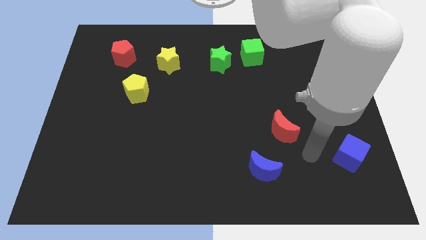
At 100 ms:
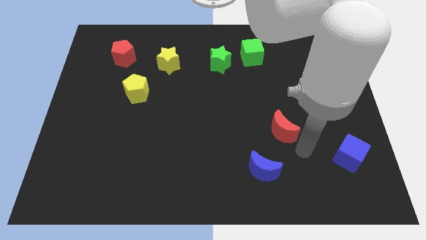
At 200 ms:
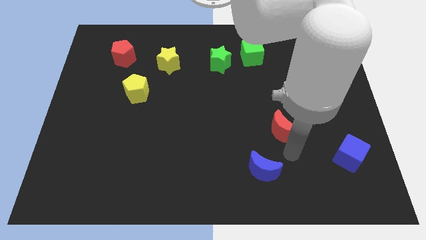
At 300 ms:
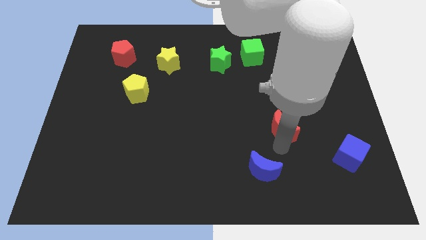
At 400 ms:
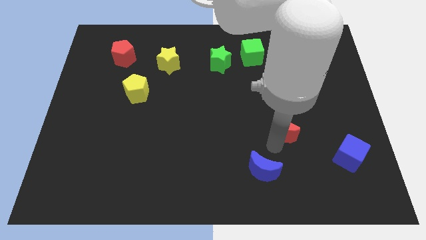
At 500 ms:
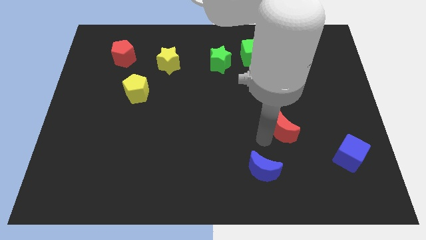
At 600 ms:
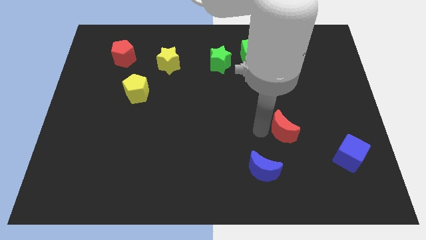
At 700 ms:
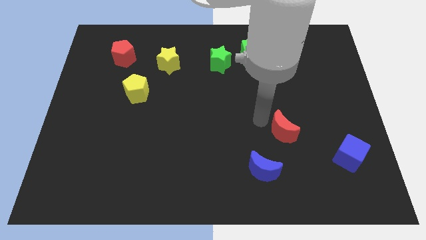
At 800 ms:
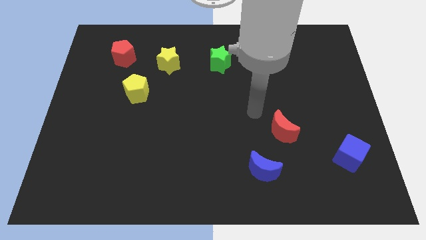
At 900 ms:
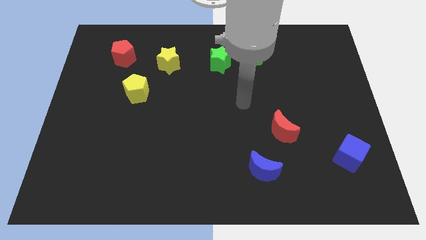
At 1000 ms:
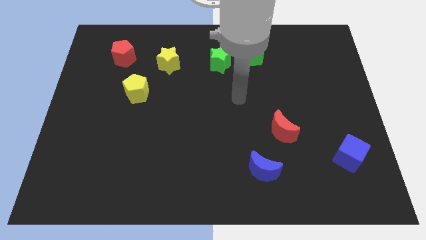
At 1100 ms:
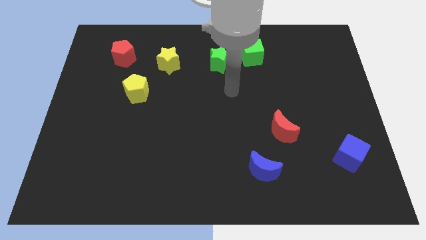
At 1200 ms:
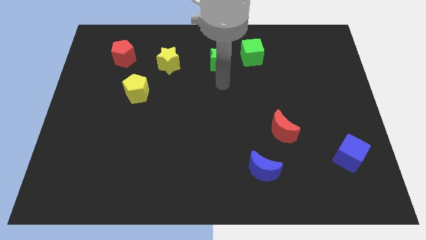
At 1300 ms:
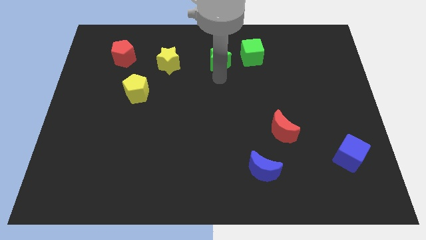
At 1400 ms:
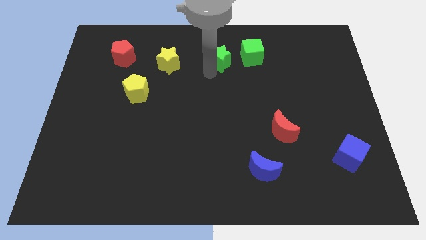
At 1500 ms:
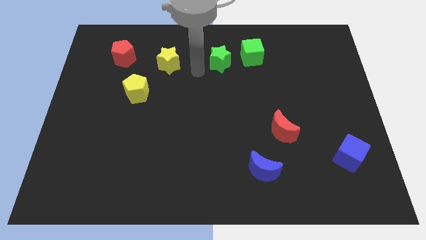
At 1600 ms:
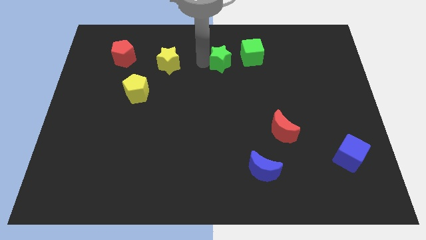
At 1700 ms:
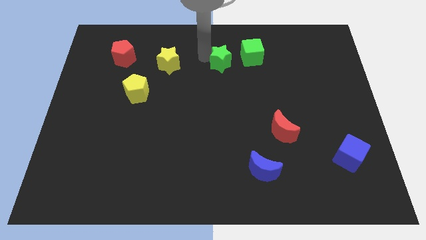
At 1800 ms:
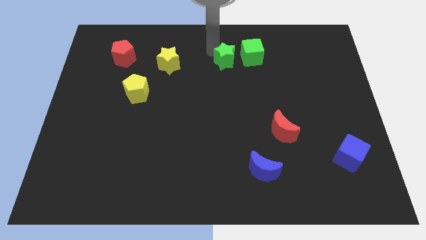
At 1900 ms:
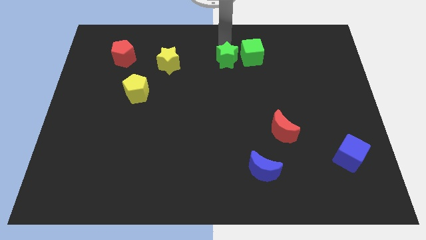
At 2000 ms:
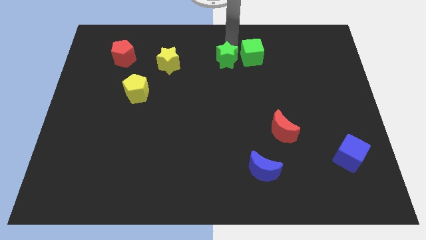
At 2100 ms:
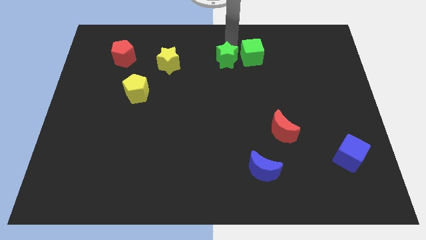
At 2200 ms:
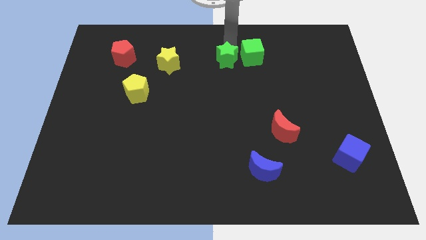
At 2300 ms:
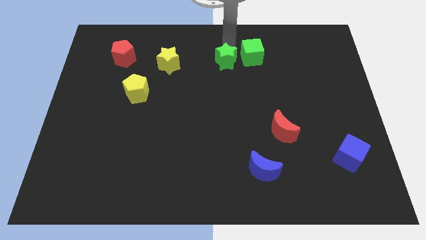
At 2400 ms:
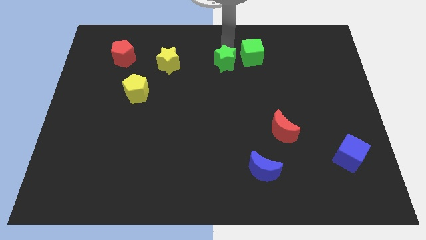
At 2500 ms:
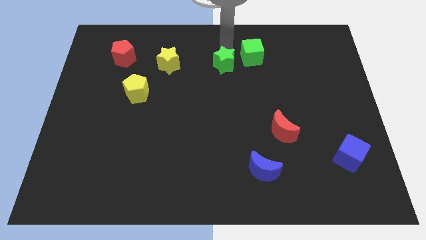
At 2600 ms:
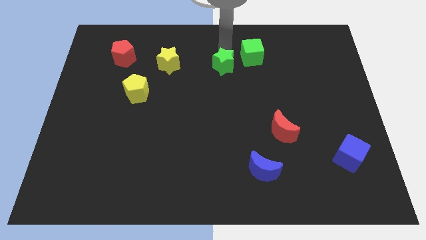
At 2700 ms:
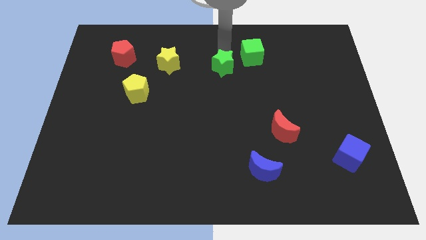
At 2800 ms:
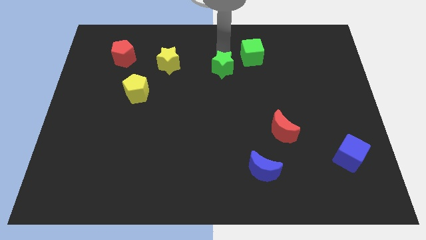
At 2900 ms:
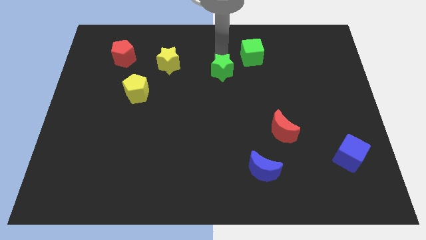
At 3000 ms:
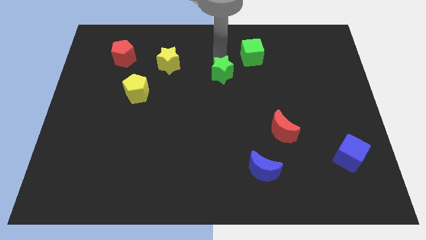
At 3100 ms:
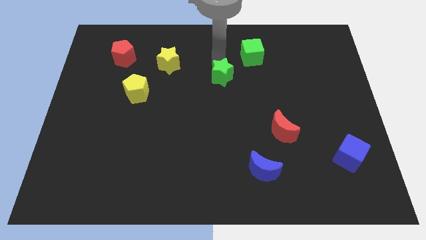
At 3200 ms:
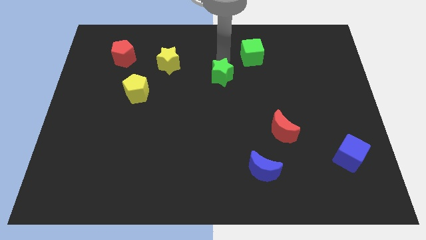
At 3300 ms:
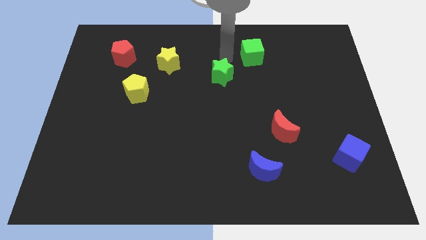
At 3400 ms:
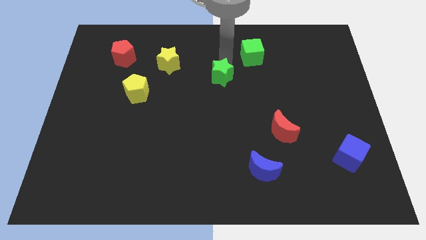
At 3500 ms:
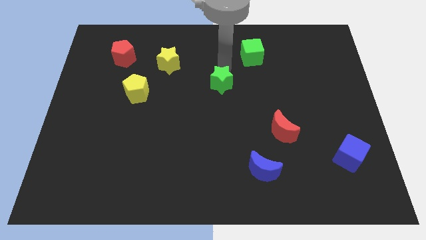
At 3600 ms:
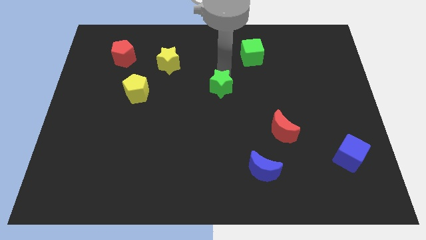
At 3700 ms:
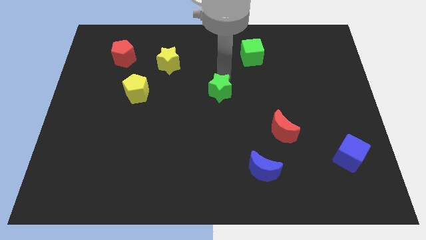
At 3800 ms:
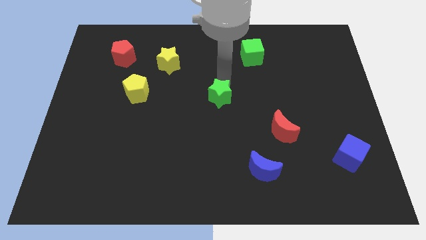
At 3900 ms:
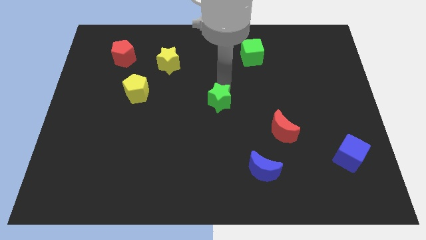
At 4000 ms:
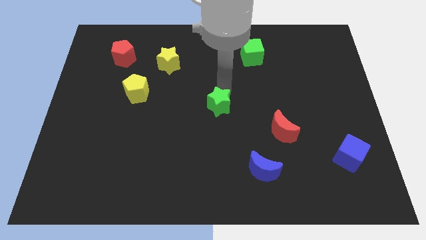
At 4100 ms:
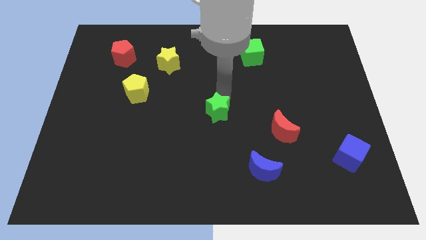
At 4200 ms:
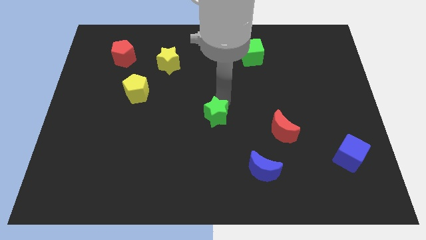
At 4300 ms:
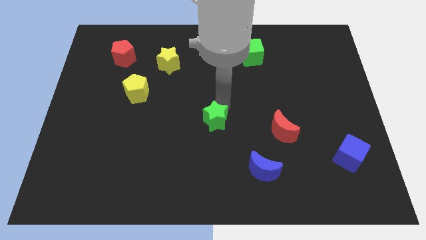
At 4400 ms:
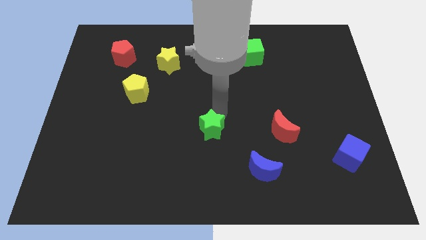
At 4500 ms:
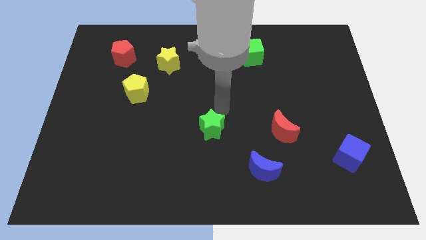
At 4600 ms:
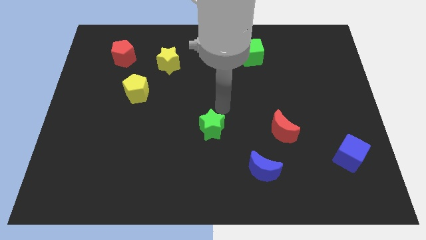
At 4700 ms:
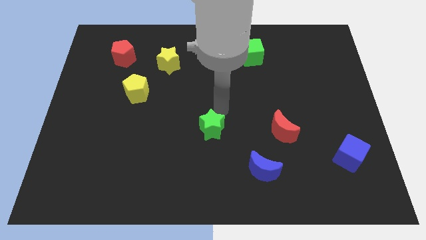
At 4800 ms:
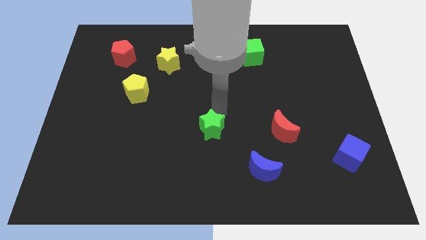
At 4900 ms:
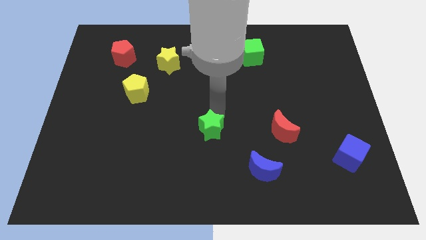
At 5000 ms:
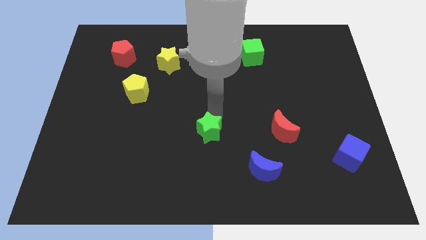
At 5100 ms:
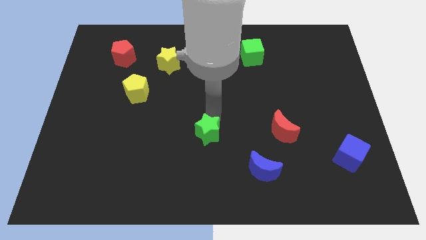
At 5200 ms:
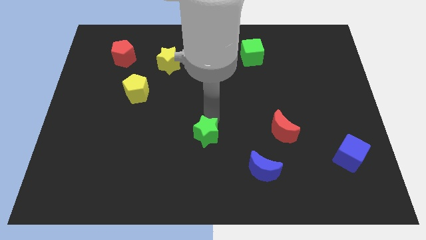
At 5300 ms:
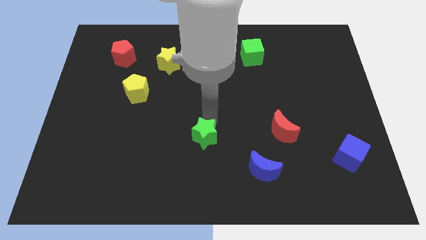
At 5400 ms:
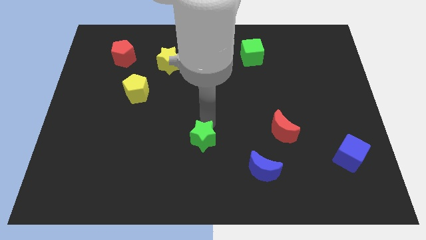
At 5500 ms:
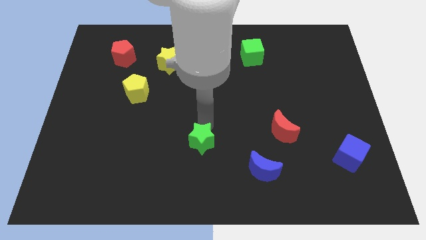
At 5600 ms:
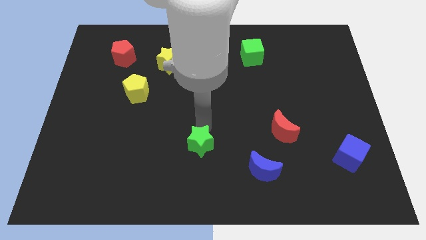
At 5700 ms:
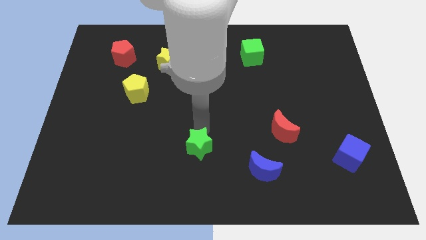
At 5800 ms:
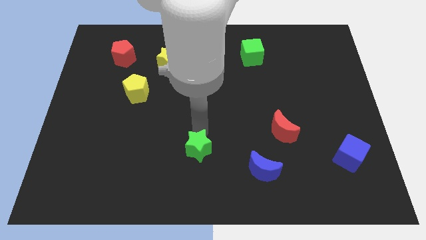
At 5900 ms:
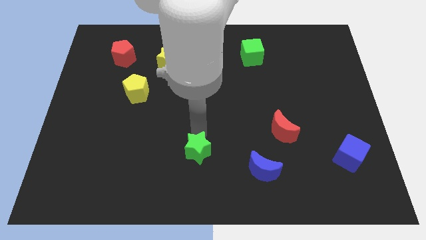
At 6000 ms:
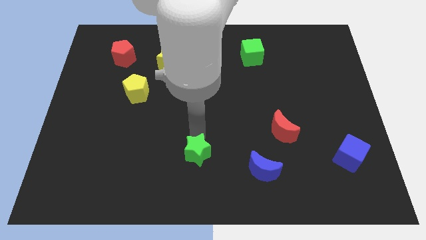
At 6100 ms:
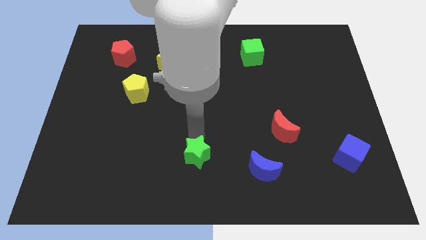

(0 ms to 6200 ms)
put the green star to the bottom
